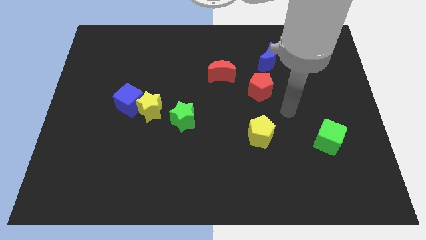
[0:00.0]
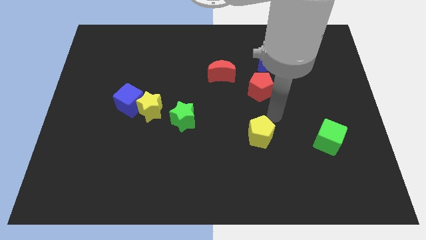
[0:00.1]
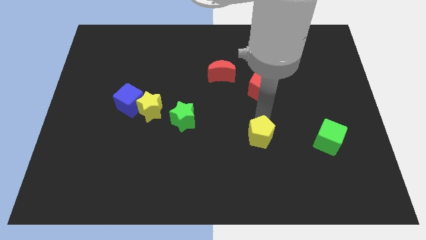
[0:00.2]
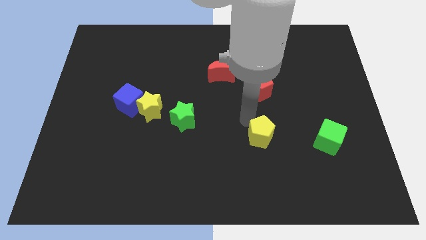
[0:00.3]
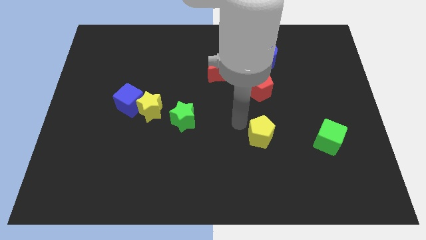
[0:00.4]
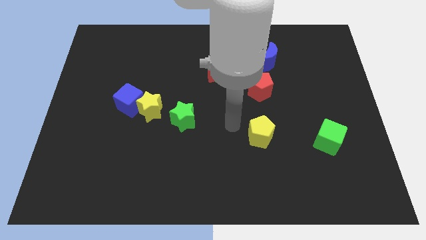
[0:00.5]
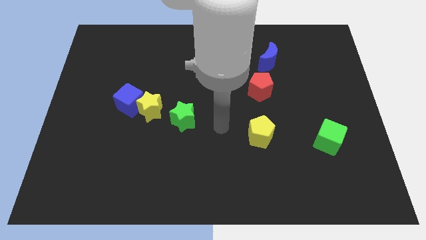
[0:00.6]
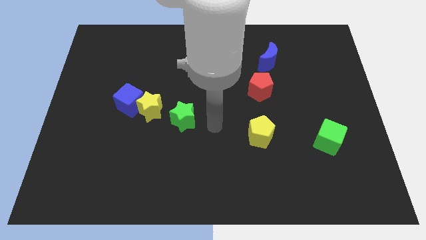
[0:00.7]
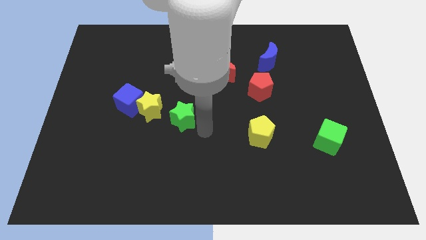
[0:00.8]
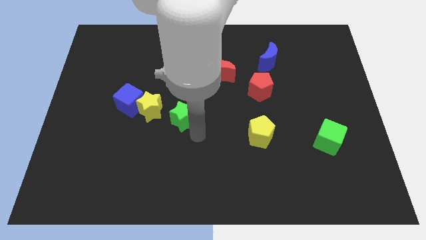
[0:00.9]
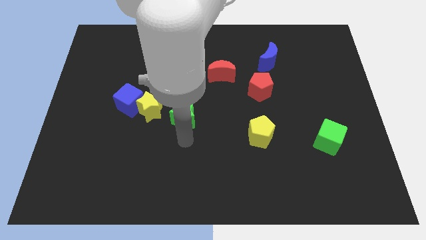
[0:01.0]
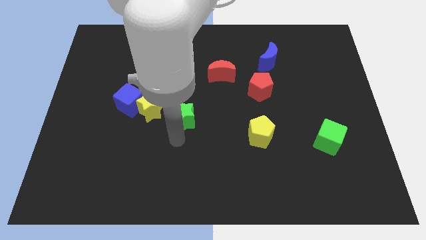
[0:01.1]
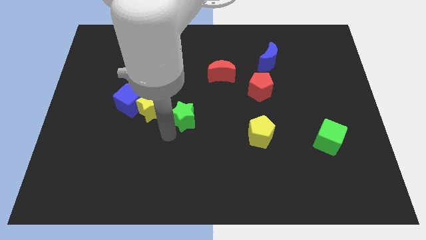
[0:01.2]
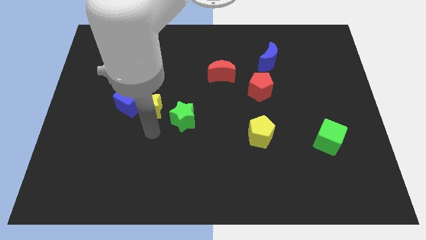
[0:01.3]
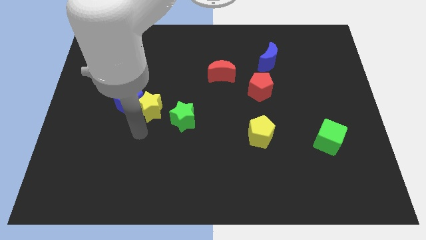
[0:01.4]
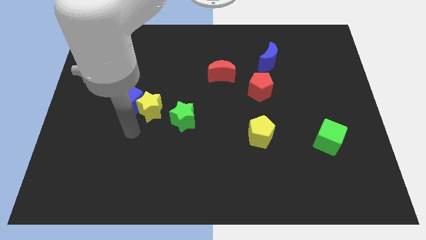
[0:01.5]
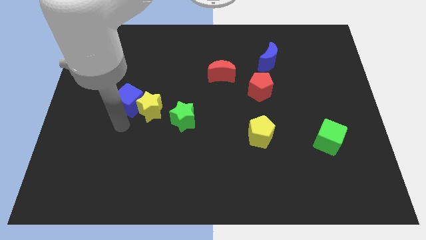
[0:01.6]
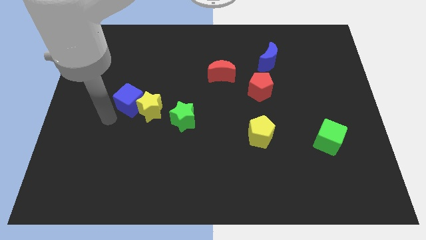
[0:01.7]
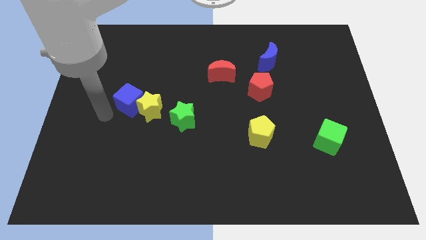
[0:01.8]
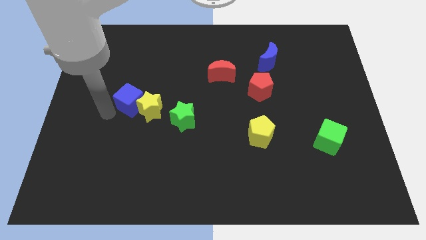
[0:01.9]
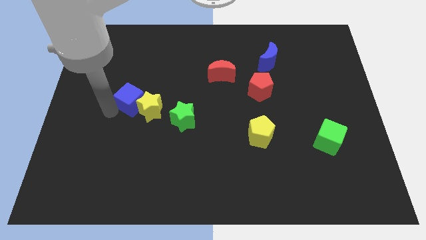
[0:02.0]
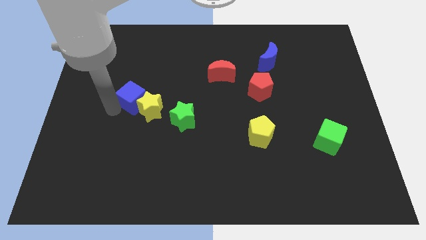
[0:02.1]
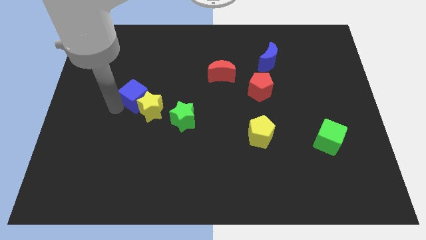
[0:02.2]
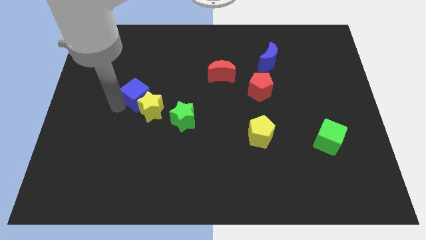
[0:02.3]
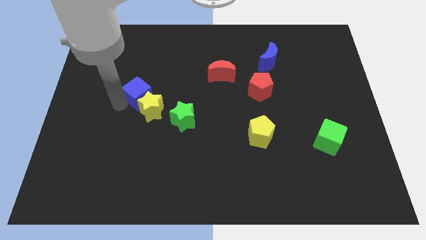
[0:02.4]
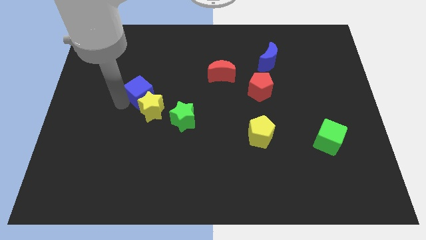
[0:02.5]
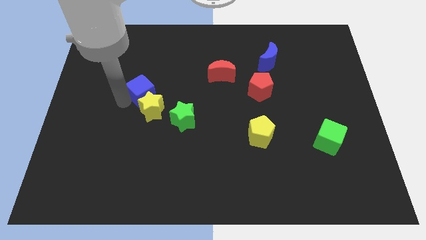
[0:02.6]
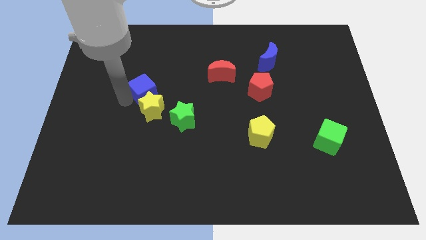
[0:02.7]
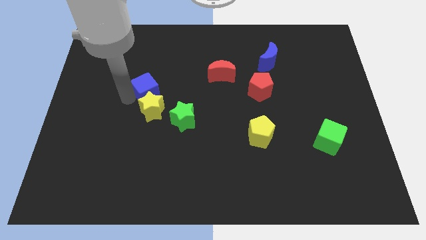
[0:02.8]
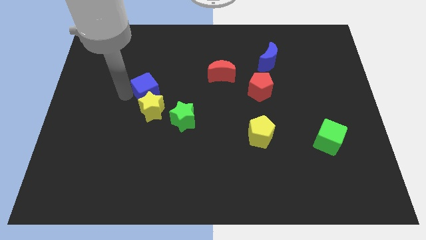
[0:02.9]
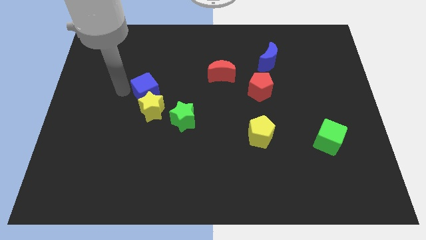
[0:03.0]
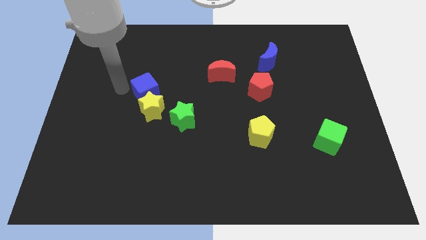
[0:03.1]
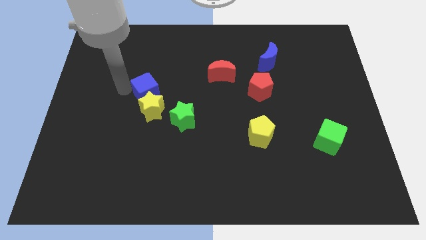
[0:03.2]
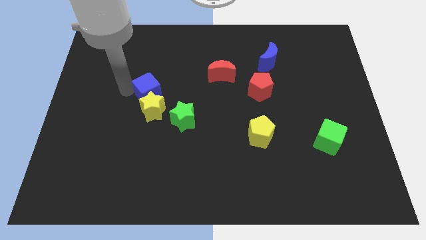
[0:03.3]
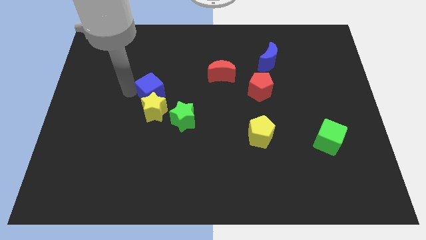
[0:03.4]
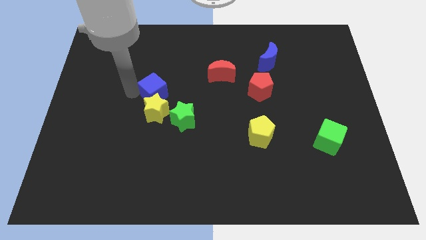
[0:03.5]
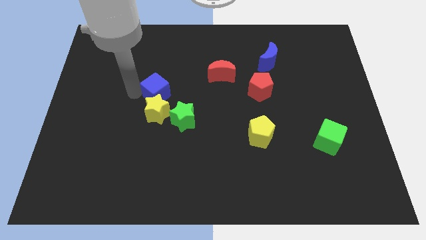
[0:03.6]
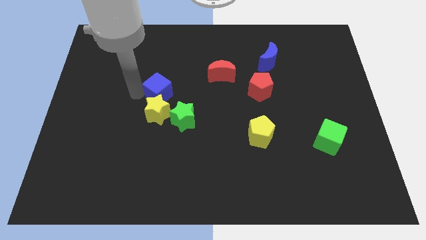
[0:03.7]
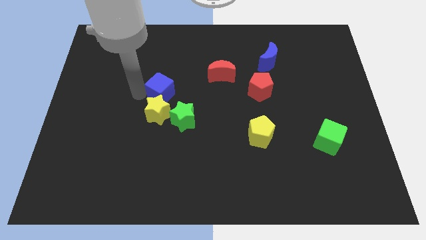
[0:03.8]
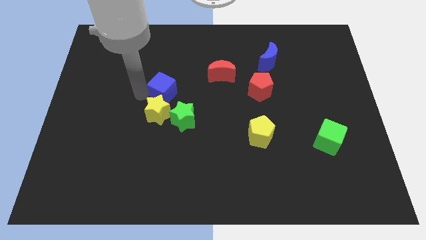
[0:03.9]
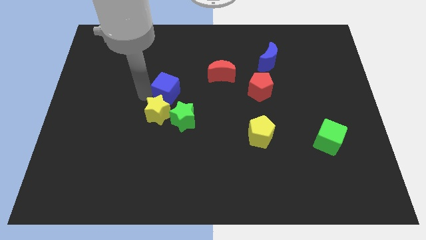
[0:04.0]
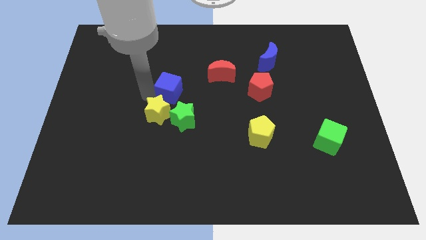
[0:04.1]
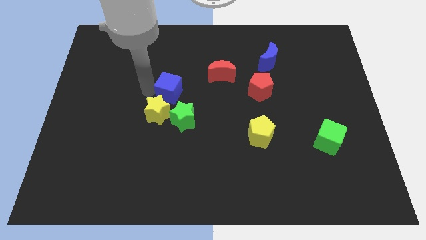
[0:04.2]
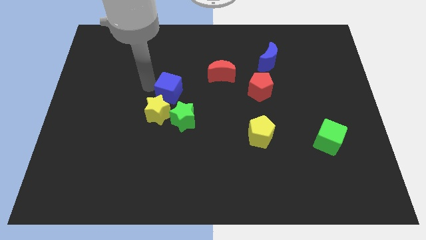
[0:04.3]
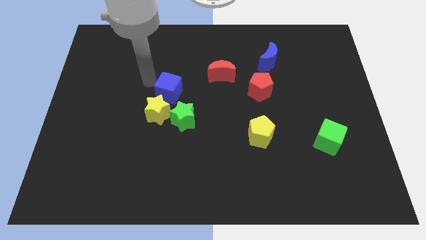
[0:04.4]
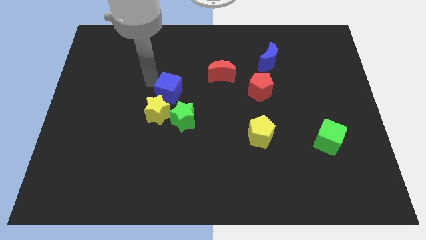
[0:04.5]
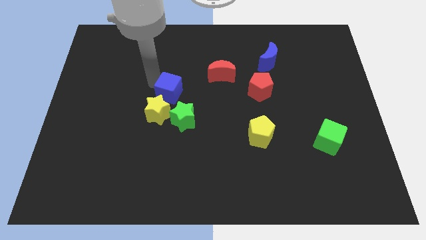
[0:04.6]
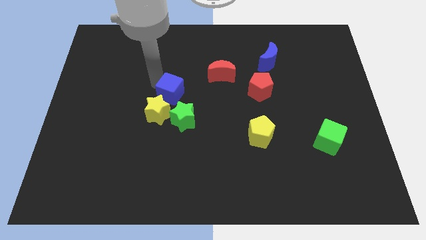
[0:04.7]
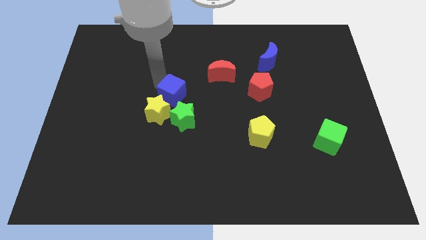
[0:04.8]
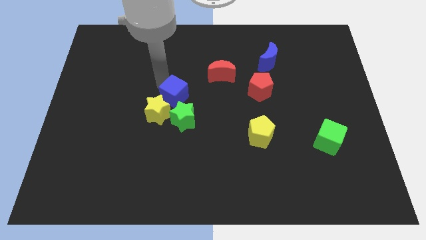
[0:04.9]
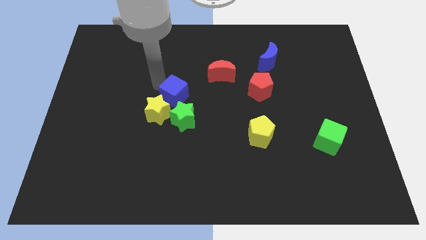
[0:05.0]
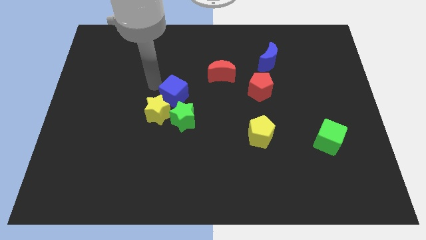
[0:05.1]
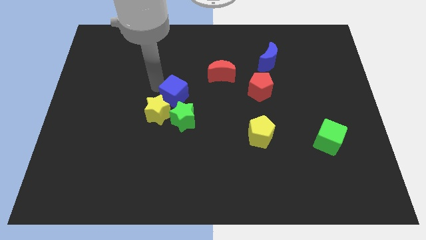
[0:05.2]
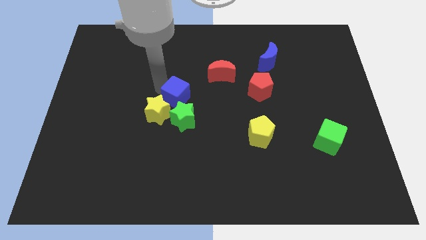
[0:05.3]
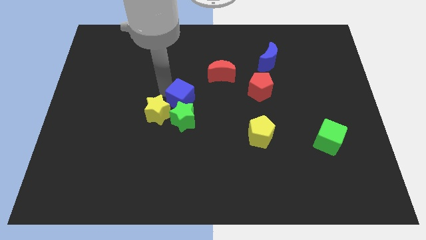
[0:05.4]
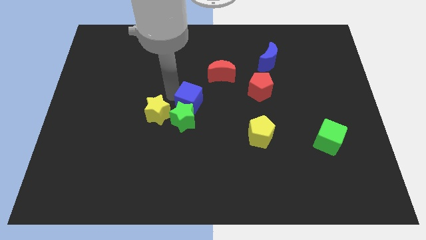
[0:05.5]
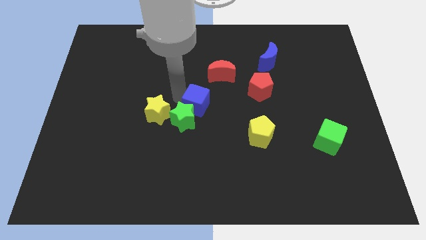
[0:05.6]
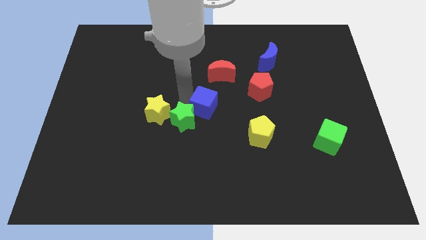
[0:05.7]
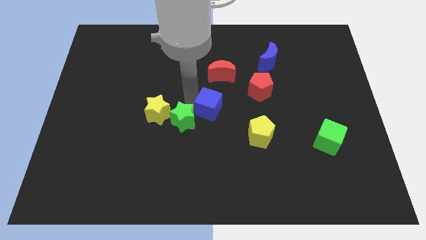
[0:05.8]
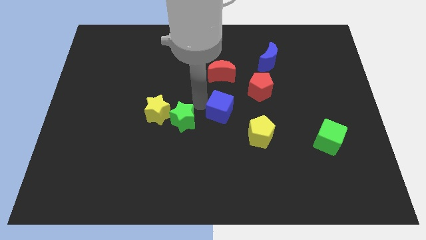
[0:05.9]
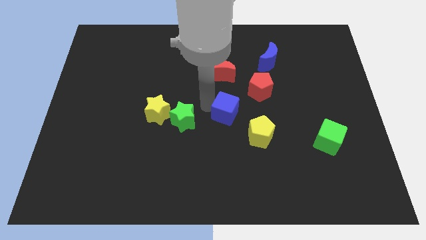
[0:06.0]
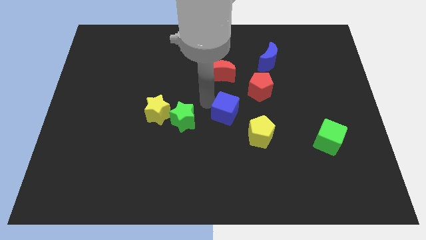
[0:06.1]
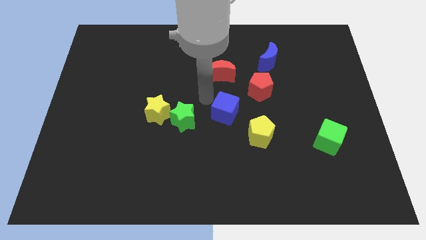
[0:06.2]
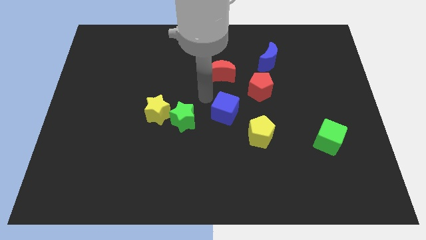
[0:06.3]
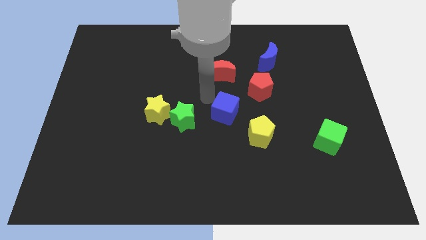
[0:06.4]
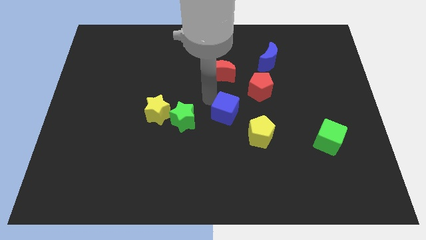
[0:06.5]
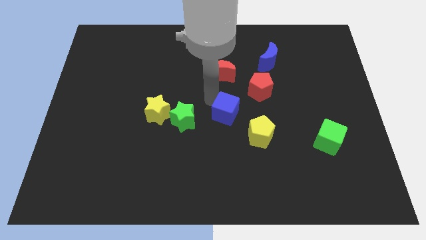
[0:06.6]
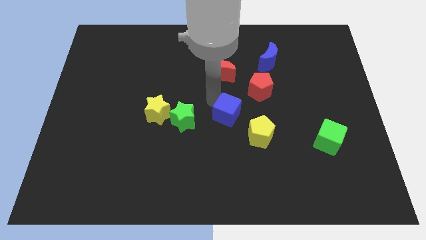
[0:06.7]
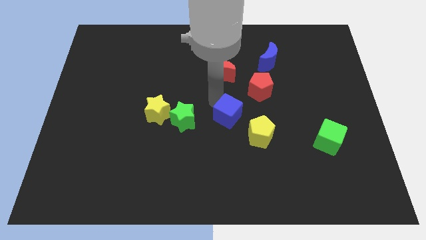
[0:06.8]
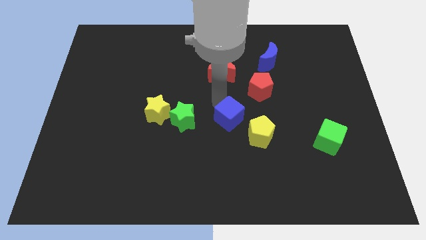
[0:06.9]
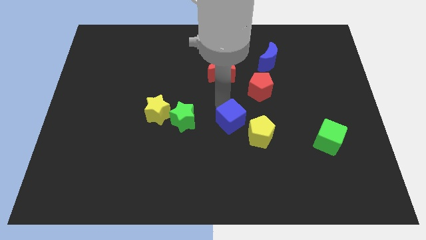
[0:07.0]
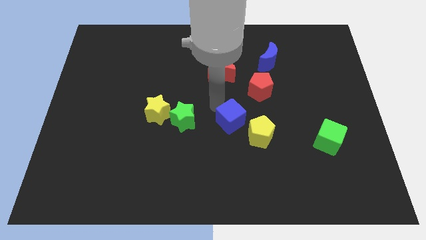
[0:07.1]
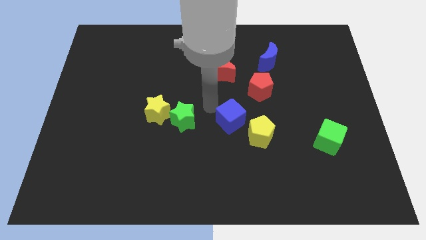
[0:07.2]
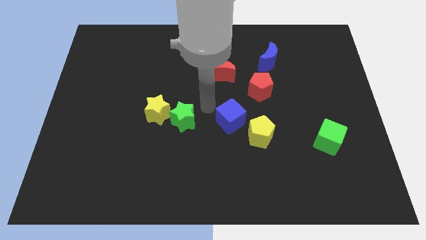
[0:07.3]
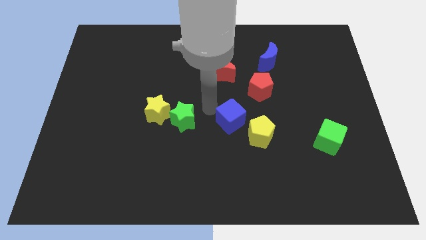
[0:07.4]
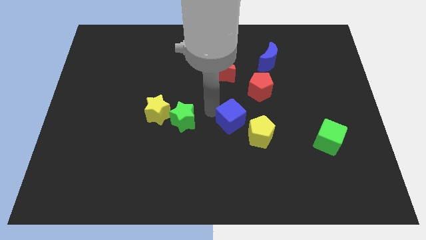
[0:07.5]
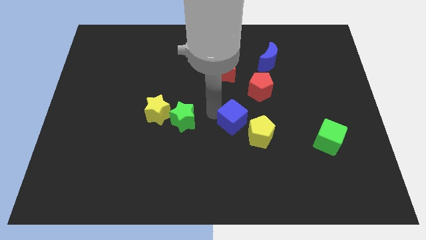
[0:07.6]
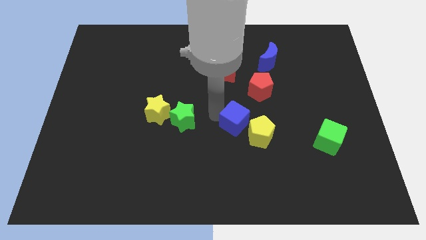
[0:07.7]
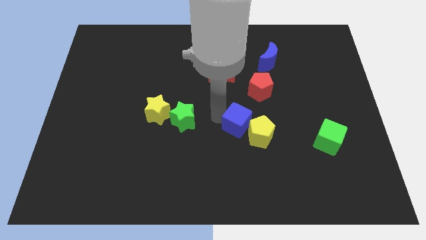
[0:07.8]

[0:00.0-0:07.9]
put the blue cube to the yellow pentagon
